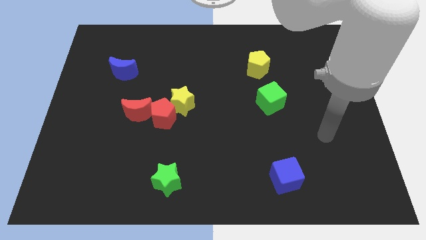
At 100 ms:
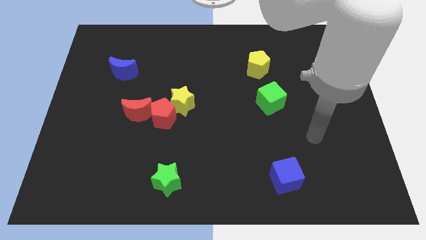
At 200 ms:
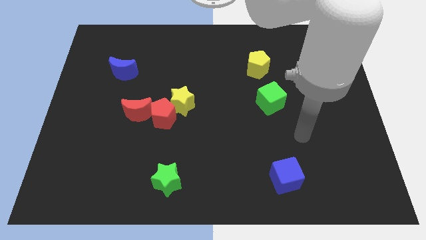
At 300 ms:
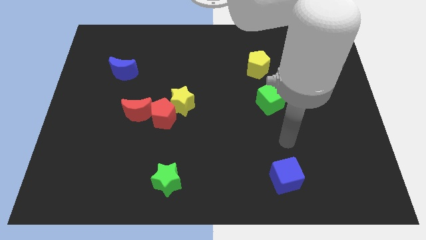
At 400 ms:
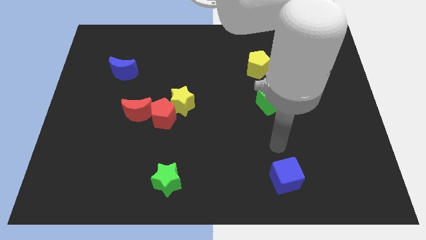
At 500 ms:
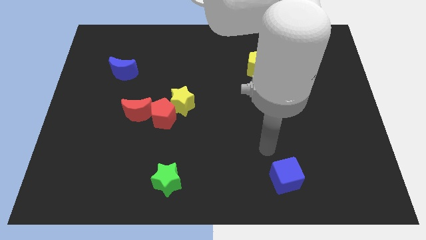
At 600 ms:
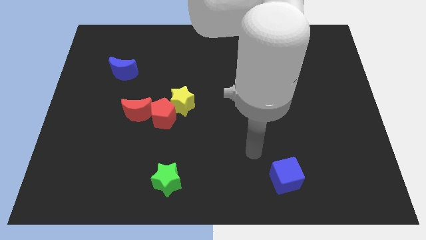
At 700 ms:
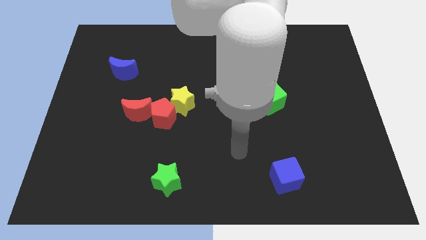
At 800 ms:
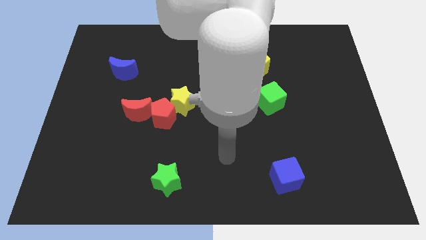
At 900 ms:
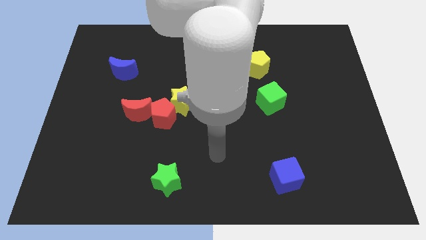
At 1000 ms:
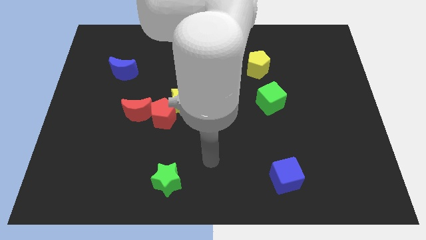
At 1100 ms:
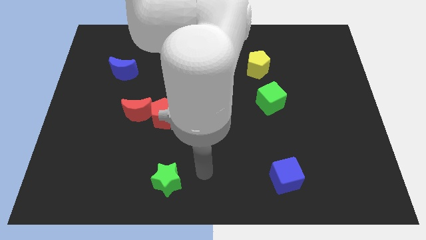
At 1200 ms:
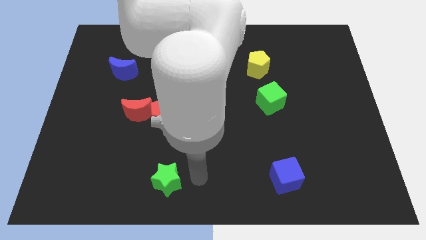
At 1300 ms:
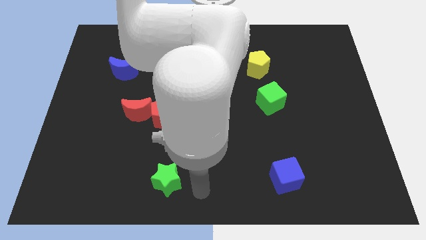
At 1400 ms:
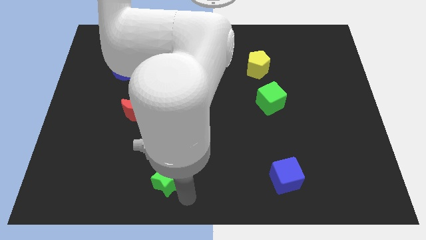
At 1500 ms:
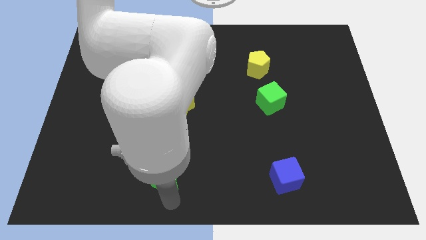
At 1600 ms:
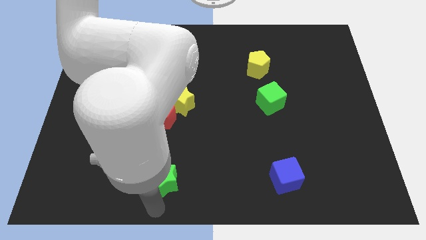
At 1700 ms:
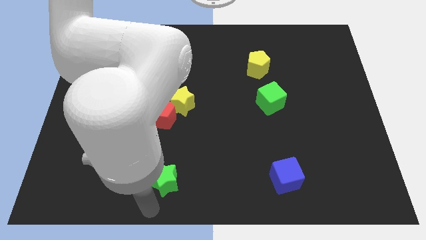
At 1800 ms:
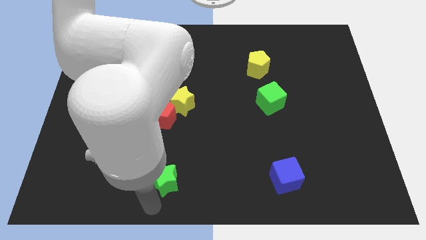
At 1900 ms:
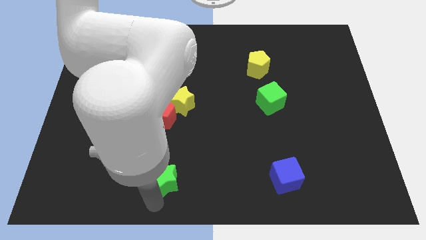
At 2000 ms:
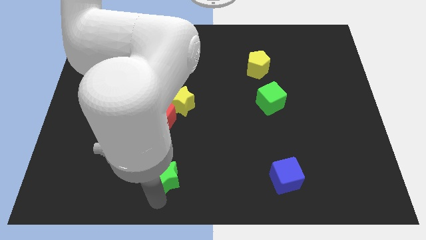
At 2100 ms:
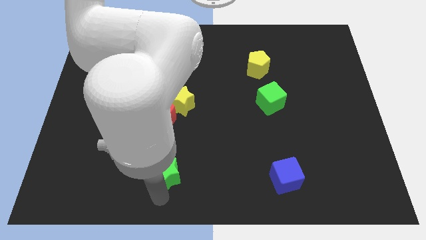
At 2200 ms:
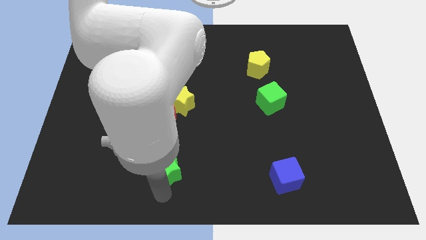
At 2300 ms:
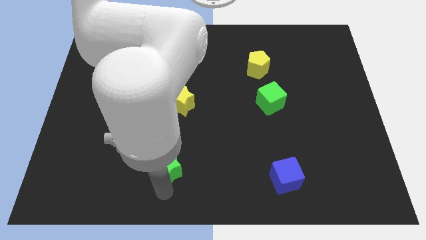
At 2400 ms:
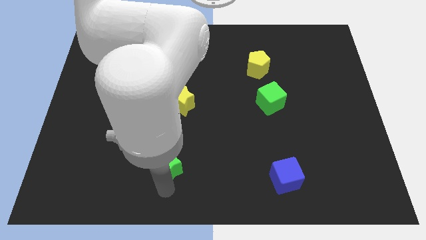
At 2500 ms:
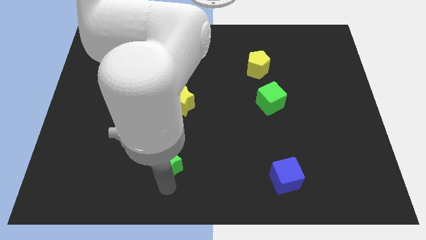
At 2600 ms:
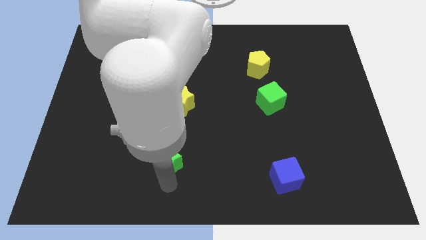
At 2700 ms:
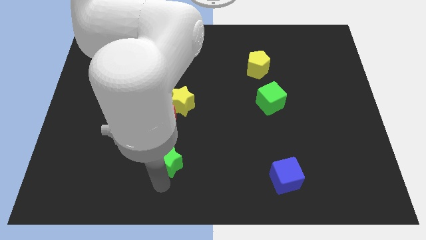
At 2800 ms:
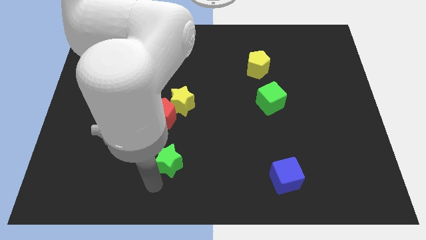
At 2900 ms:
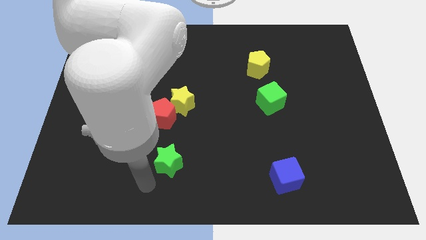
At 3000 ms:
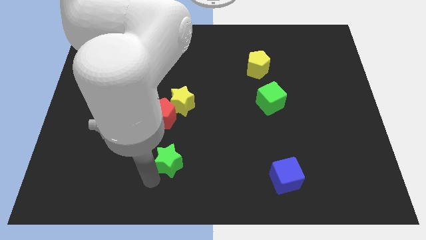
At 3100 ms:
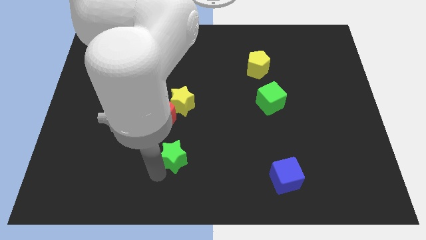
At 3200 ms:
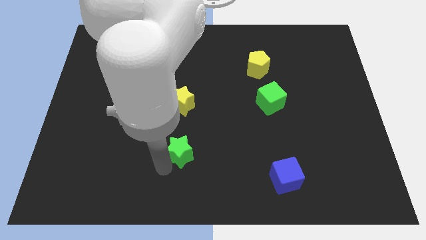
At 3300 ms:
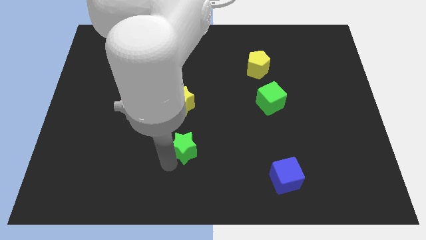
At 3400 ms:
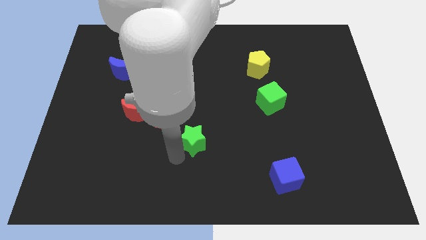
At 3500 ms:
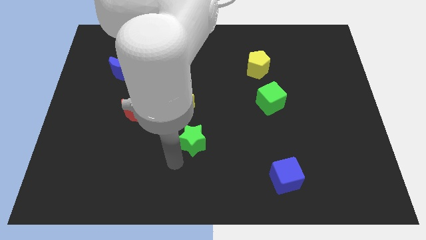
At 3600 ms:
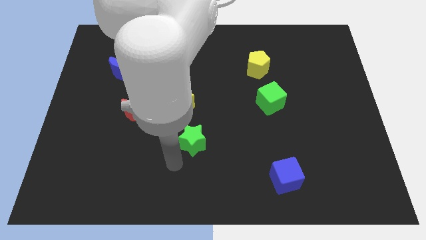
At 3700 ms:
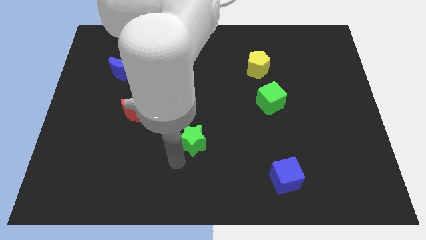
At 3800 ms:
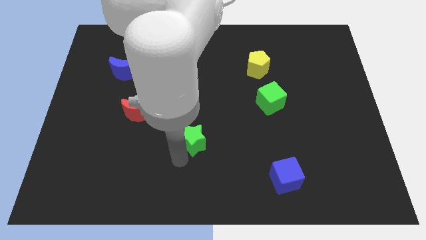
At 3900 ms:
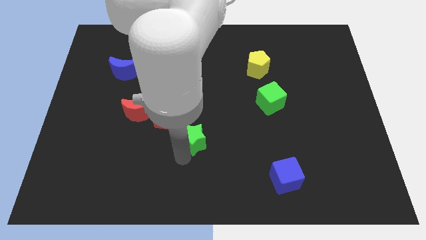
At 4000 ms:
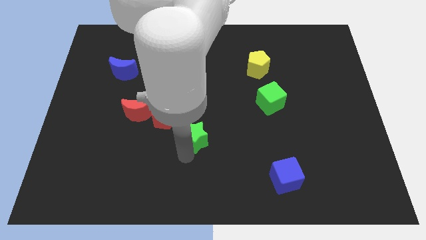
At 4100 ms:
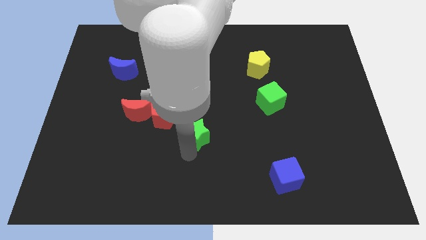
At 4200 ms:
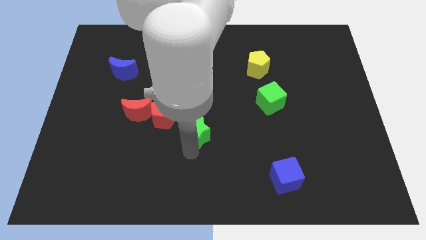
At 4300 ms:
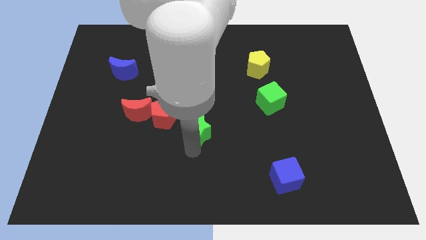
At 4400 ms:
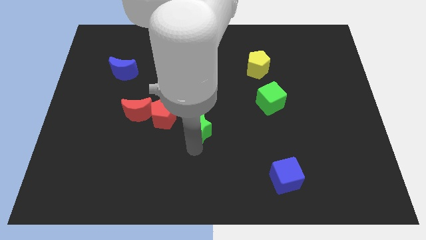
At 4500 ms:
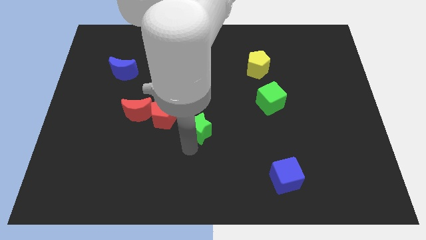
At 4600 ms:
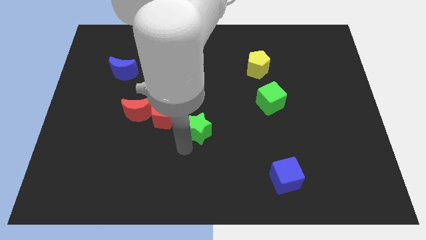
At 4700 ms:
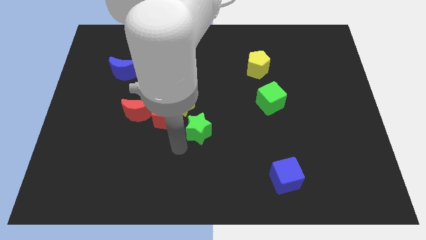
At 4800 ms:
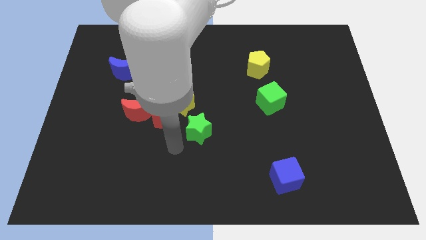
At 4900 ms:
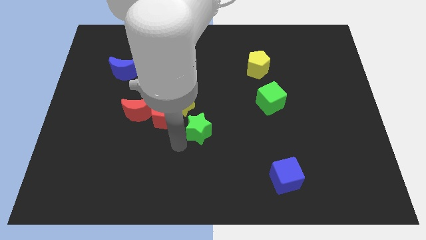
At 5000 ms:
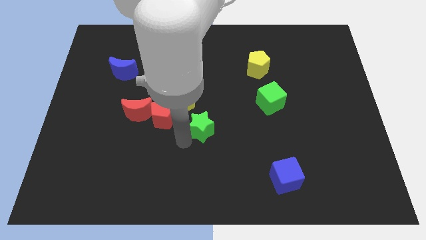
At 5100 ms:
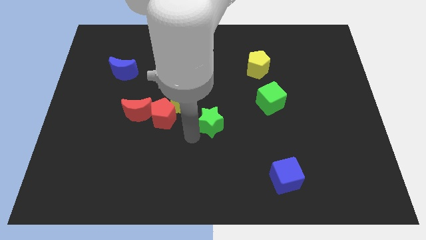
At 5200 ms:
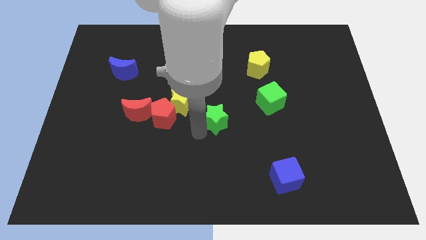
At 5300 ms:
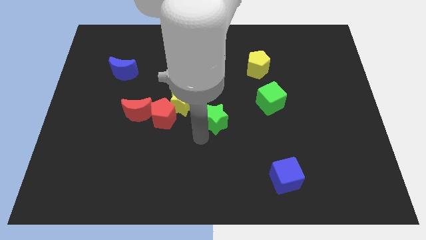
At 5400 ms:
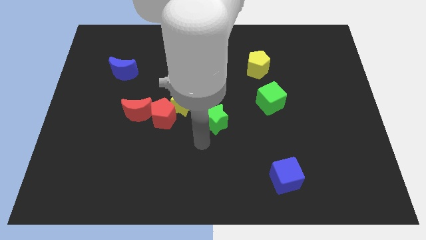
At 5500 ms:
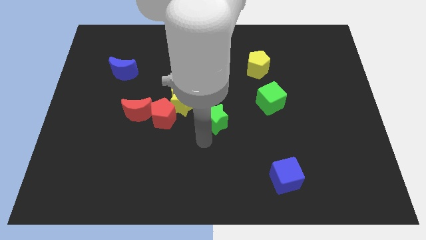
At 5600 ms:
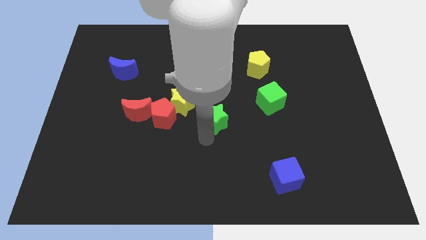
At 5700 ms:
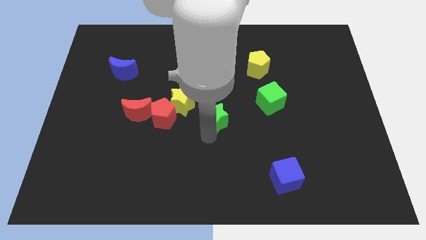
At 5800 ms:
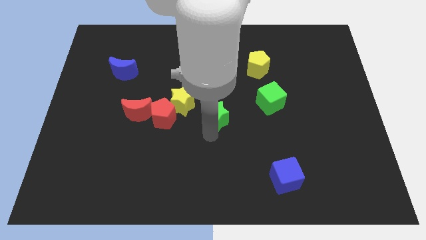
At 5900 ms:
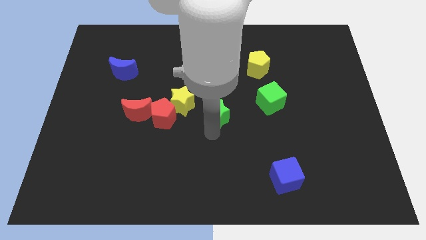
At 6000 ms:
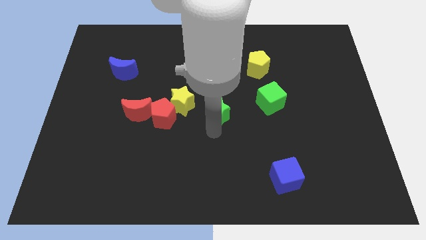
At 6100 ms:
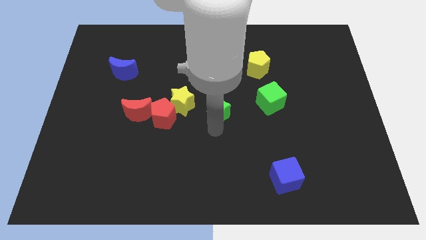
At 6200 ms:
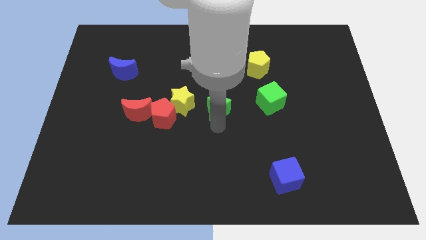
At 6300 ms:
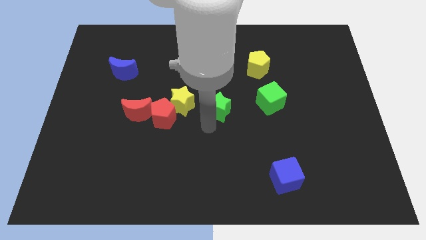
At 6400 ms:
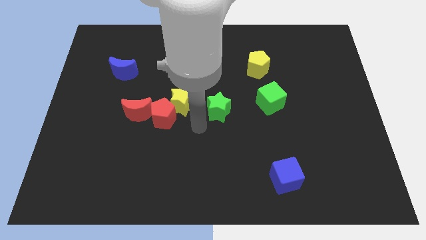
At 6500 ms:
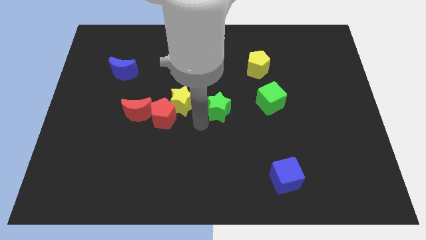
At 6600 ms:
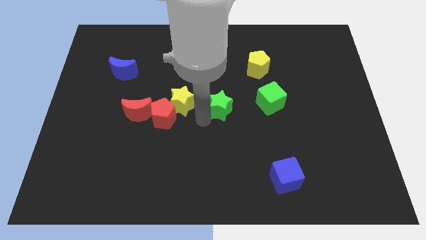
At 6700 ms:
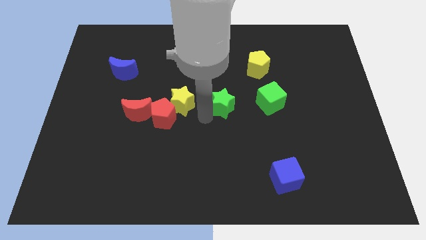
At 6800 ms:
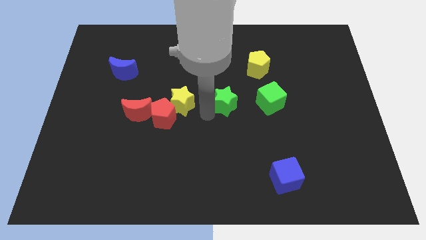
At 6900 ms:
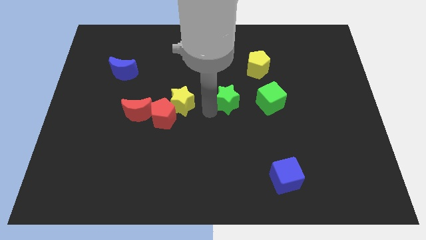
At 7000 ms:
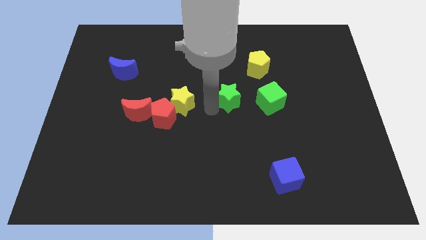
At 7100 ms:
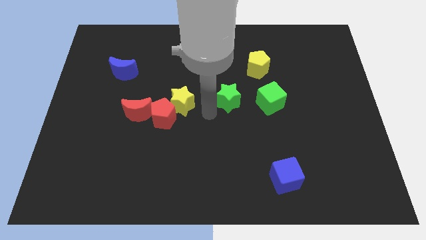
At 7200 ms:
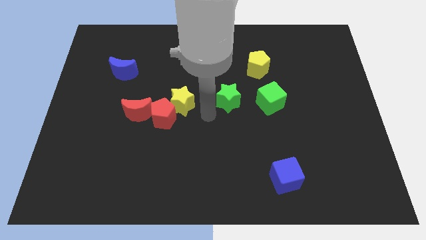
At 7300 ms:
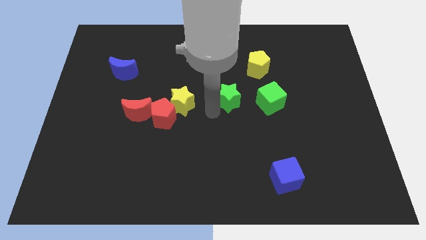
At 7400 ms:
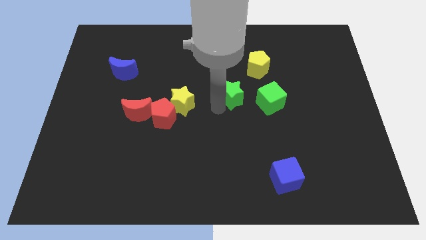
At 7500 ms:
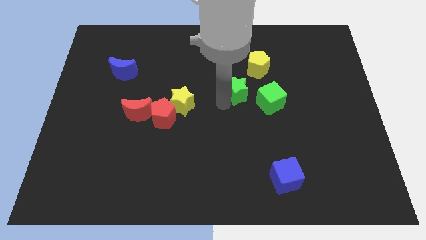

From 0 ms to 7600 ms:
move the green star to the top left side of the green cube

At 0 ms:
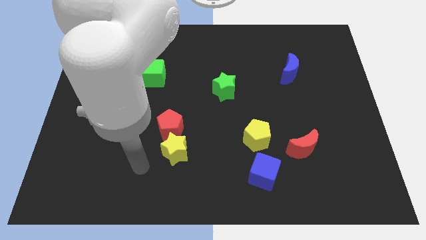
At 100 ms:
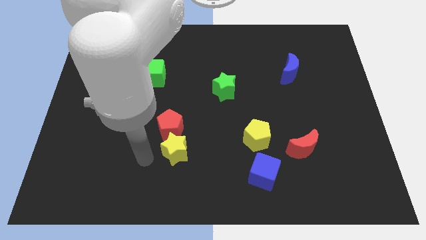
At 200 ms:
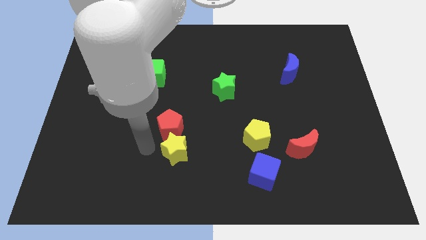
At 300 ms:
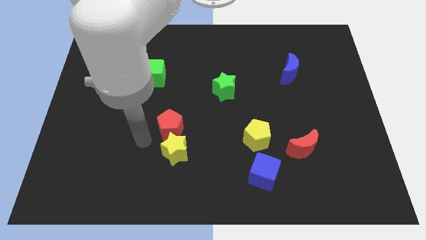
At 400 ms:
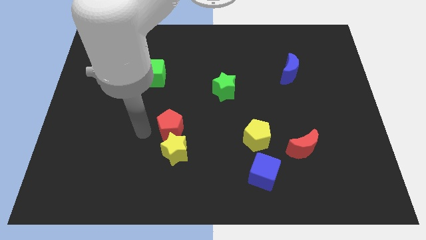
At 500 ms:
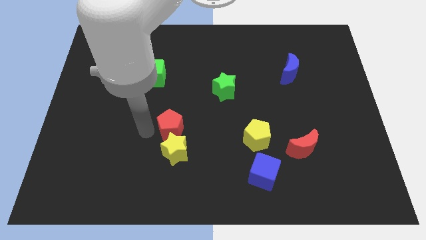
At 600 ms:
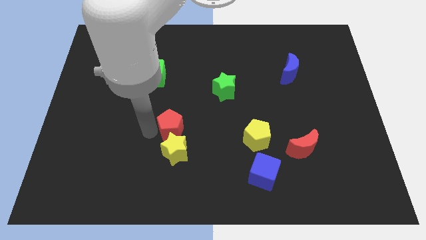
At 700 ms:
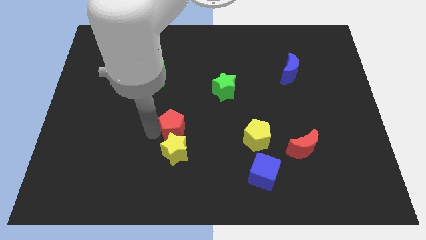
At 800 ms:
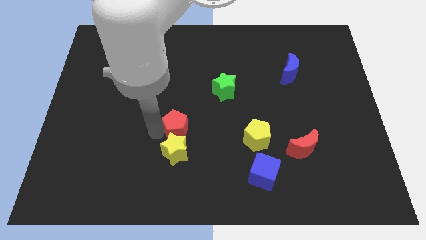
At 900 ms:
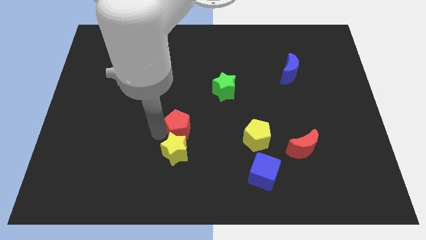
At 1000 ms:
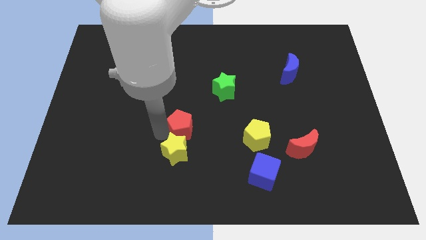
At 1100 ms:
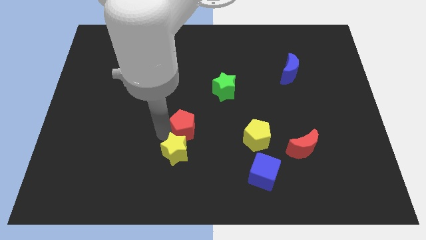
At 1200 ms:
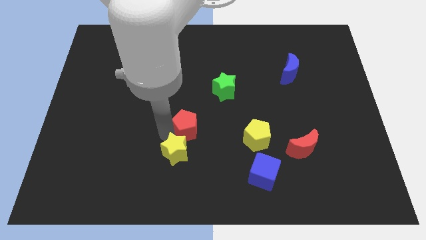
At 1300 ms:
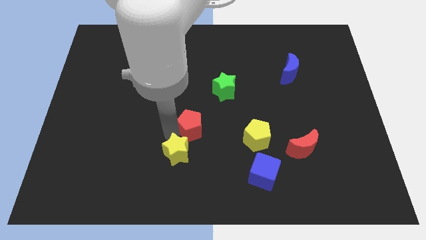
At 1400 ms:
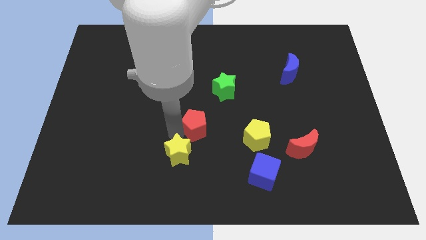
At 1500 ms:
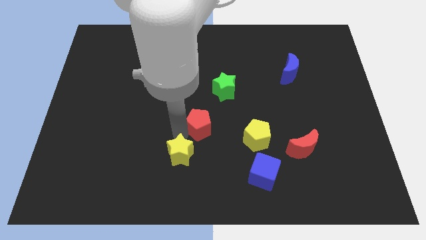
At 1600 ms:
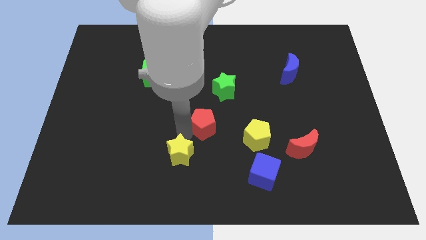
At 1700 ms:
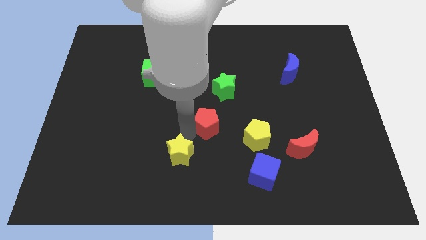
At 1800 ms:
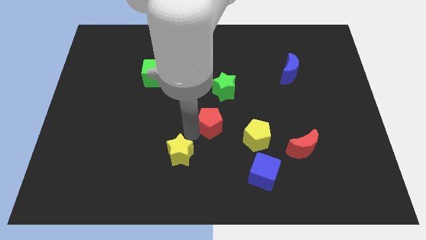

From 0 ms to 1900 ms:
slide the red pentagon diagonally up and to the left of the yellow pentagon
